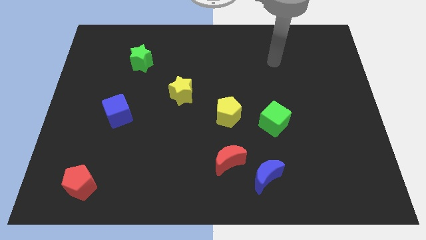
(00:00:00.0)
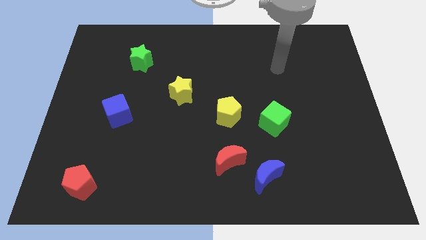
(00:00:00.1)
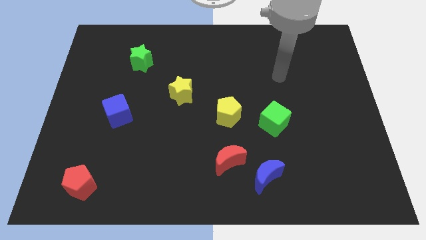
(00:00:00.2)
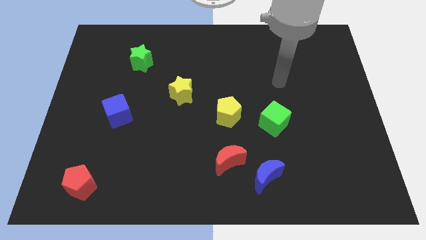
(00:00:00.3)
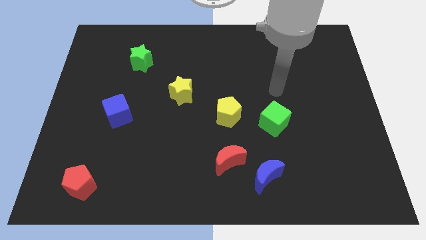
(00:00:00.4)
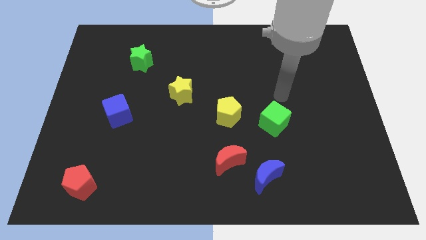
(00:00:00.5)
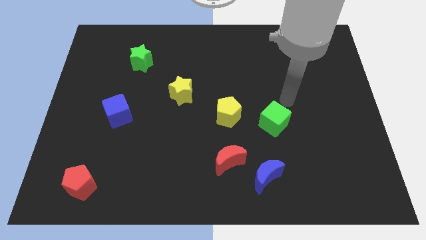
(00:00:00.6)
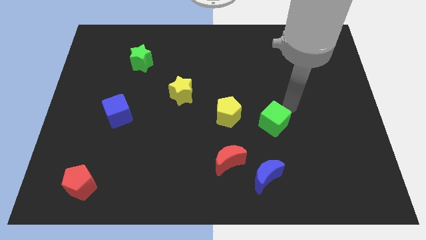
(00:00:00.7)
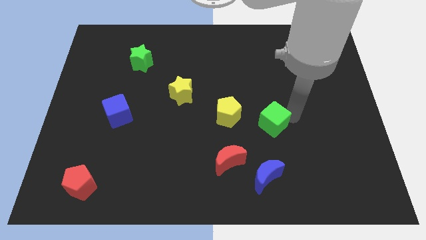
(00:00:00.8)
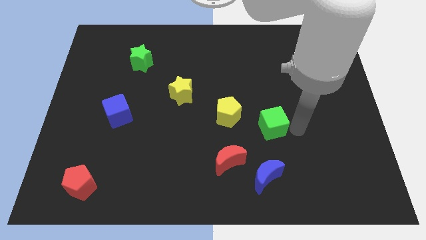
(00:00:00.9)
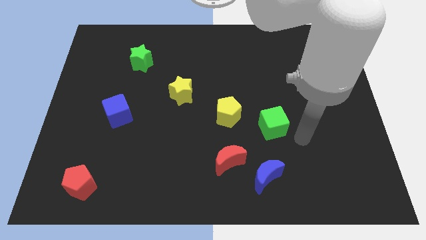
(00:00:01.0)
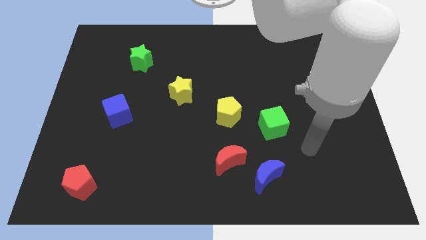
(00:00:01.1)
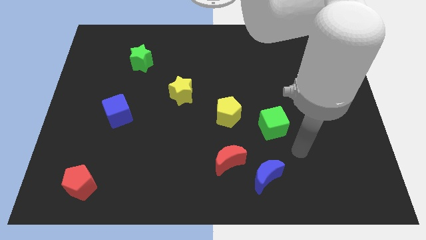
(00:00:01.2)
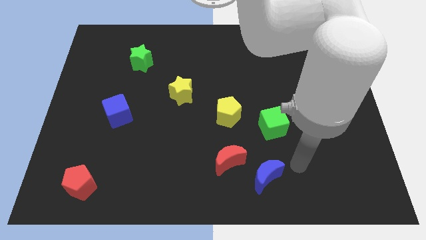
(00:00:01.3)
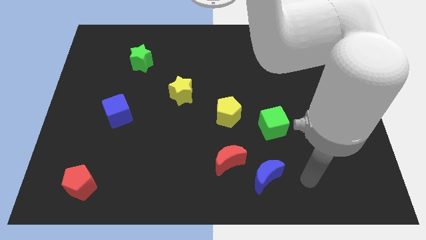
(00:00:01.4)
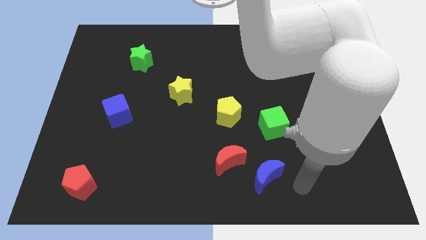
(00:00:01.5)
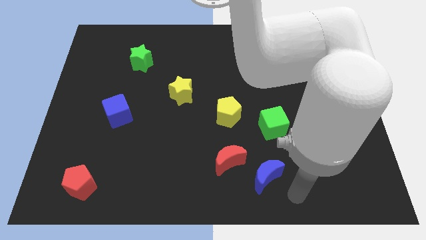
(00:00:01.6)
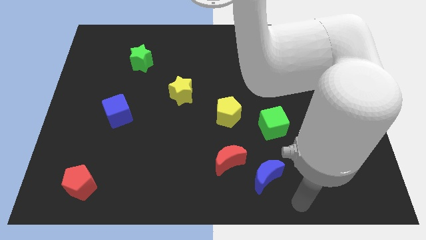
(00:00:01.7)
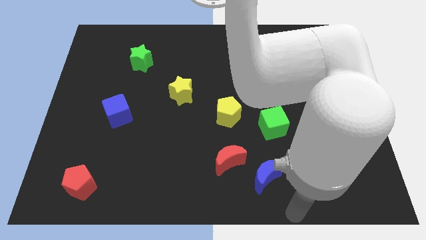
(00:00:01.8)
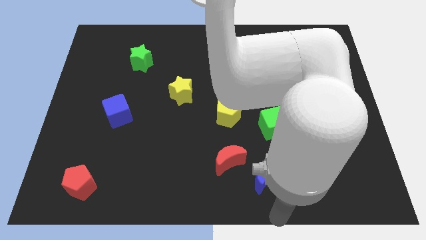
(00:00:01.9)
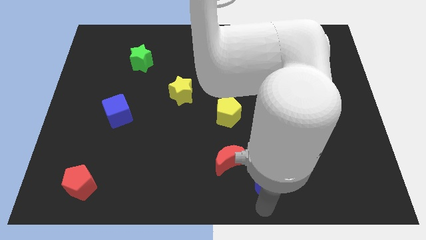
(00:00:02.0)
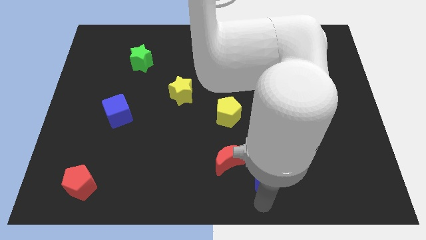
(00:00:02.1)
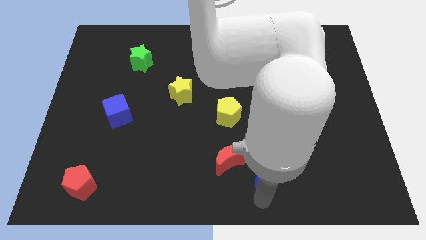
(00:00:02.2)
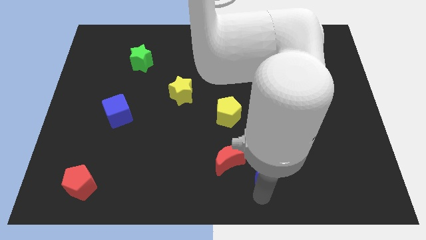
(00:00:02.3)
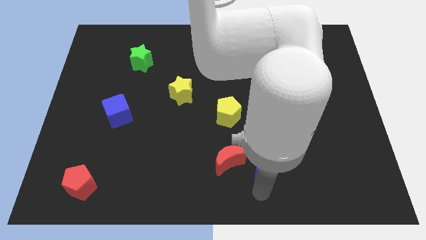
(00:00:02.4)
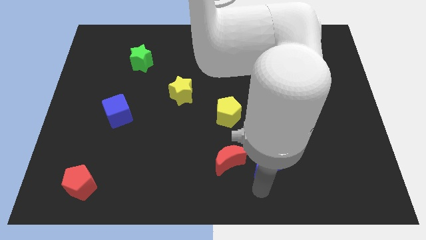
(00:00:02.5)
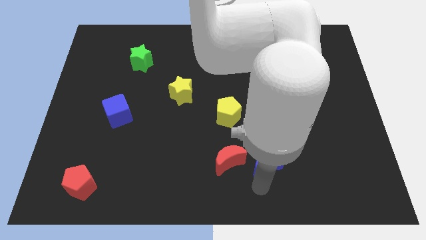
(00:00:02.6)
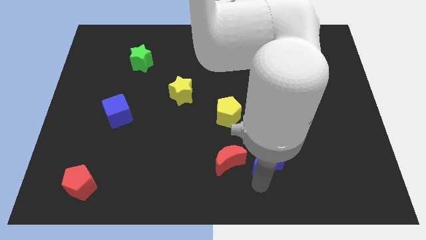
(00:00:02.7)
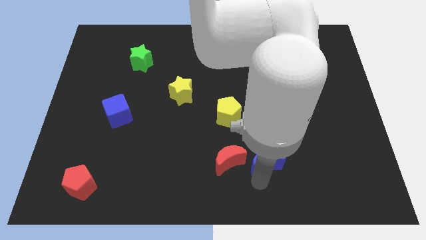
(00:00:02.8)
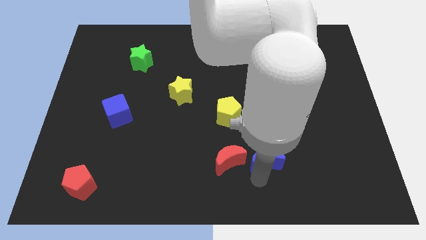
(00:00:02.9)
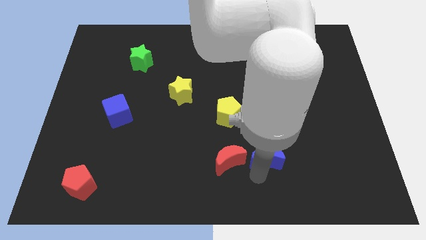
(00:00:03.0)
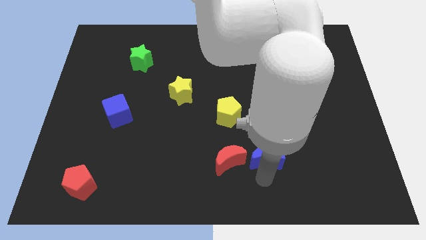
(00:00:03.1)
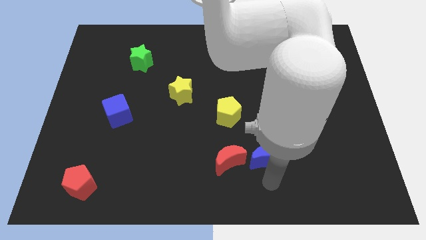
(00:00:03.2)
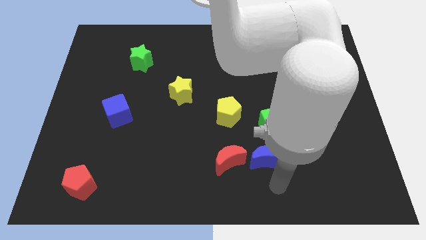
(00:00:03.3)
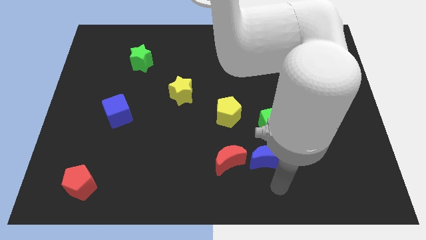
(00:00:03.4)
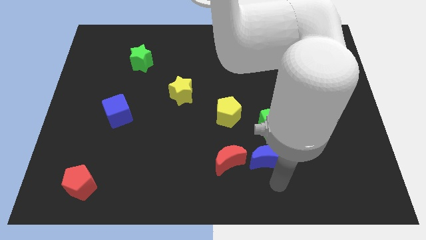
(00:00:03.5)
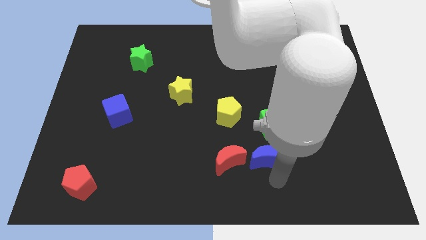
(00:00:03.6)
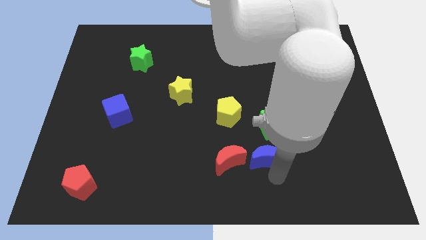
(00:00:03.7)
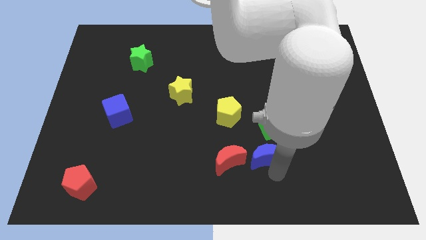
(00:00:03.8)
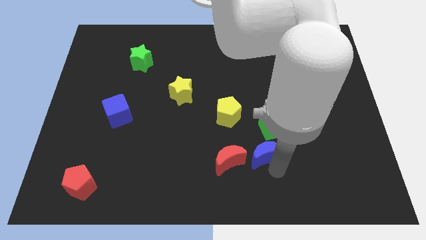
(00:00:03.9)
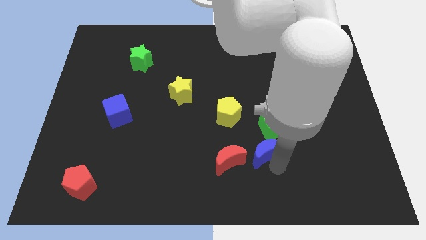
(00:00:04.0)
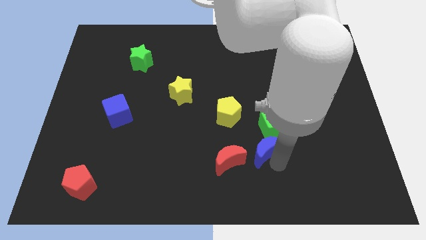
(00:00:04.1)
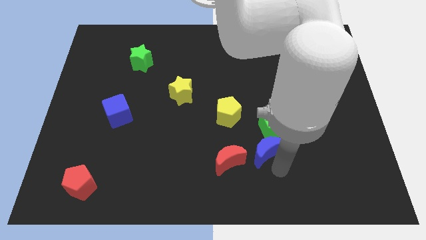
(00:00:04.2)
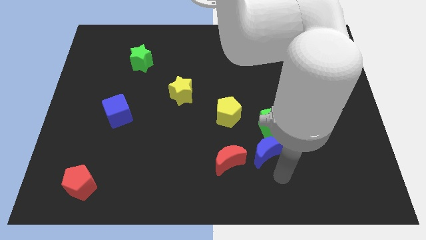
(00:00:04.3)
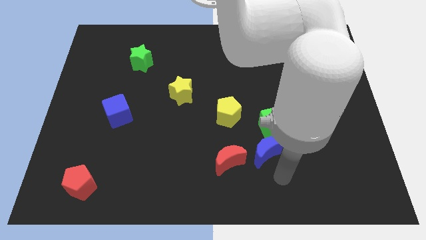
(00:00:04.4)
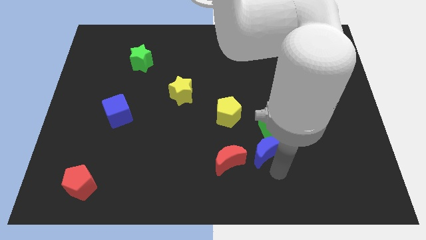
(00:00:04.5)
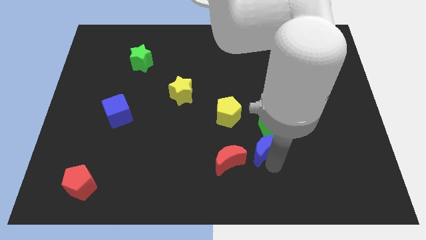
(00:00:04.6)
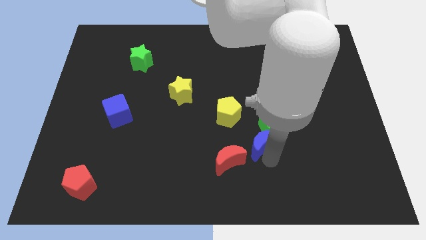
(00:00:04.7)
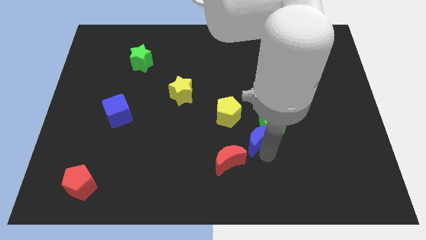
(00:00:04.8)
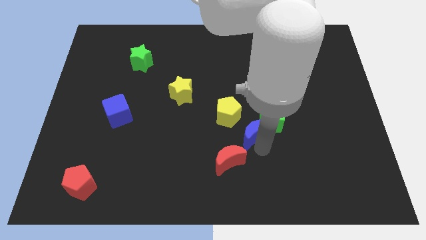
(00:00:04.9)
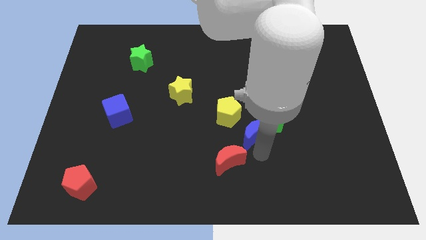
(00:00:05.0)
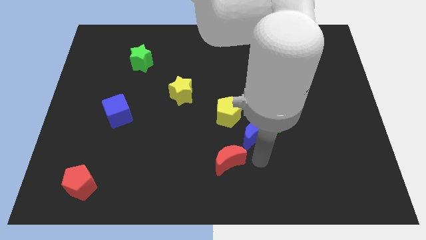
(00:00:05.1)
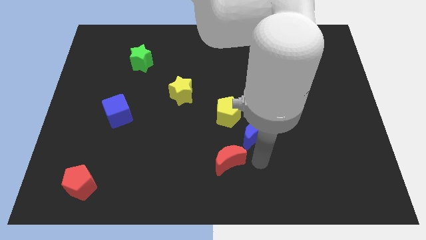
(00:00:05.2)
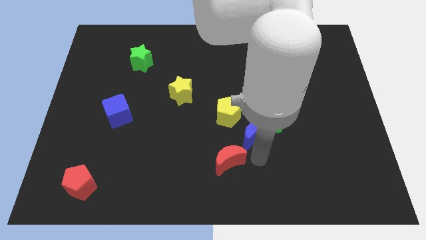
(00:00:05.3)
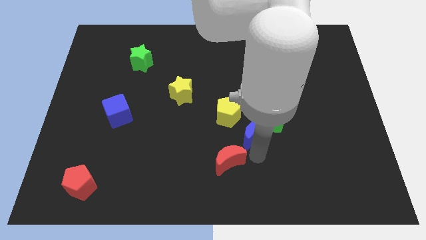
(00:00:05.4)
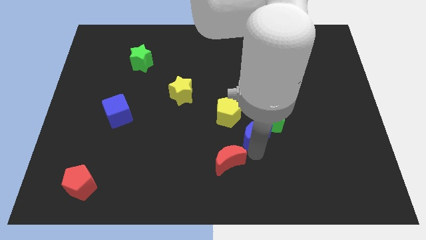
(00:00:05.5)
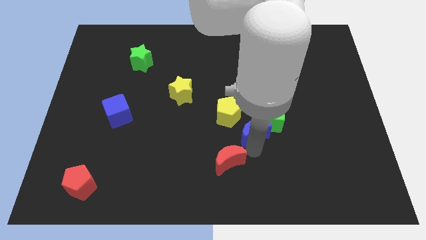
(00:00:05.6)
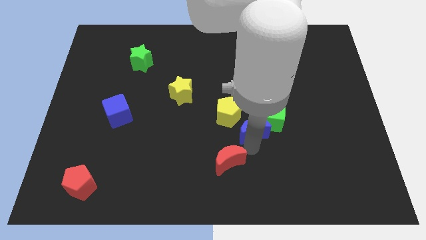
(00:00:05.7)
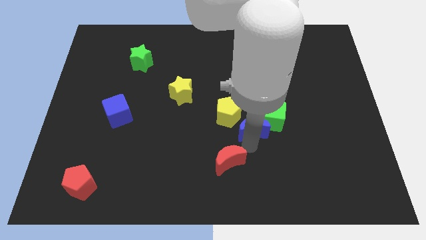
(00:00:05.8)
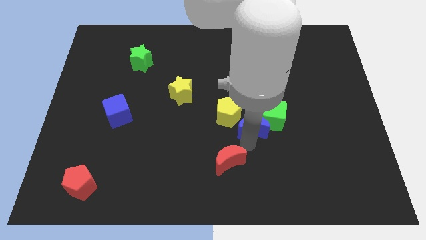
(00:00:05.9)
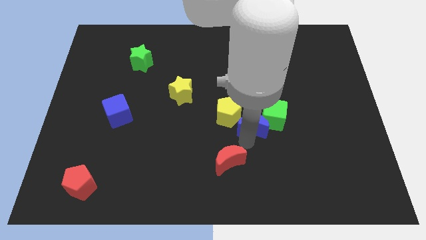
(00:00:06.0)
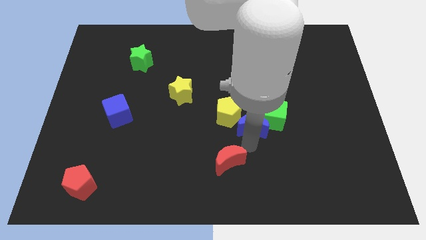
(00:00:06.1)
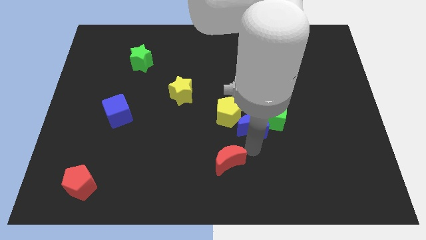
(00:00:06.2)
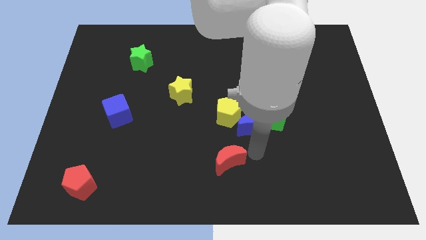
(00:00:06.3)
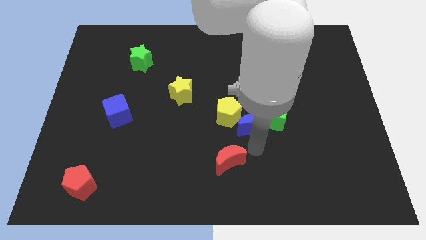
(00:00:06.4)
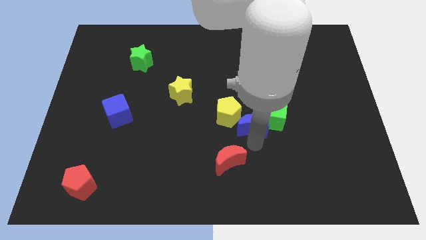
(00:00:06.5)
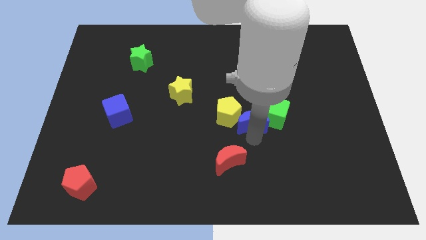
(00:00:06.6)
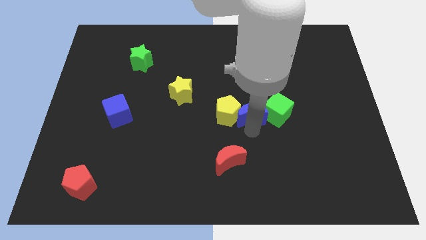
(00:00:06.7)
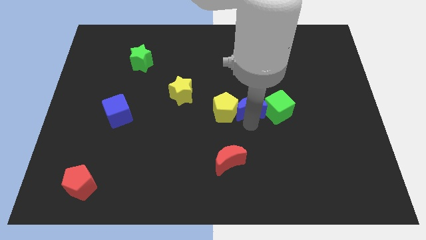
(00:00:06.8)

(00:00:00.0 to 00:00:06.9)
move the blue moon to the top left side of the green cube

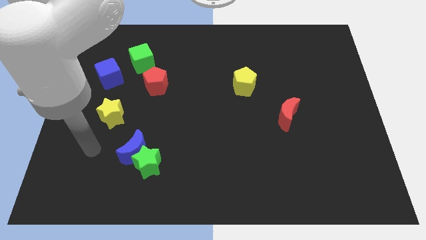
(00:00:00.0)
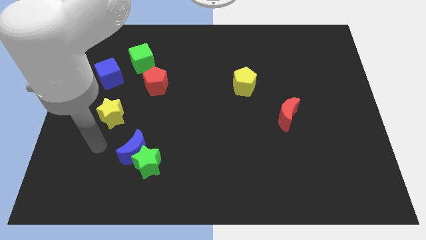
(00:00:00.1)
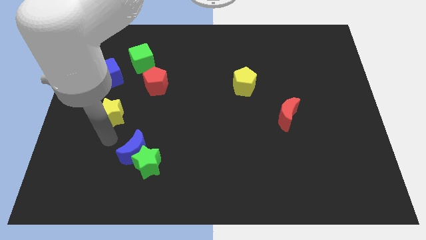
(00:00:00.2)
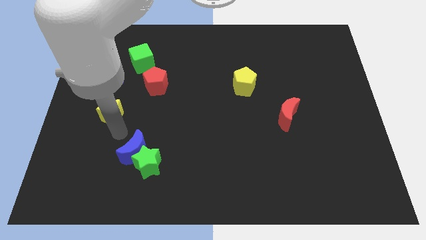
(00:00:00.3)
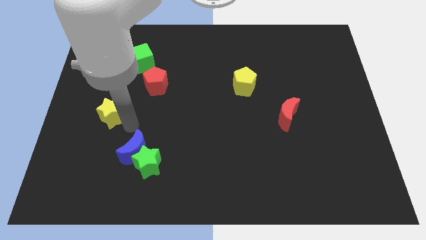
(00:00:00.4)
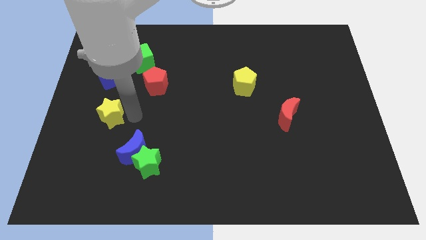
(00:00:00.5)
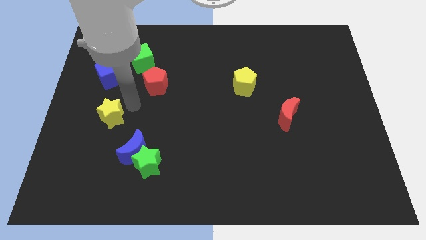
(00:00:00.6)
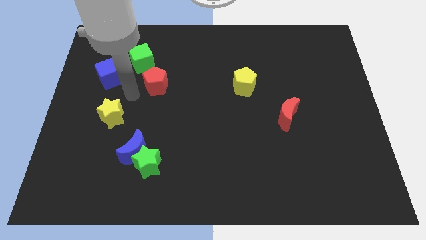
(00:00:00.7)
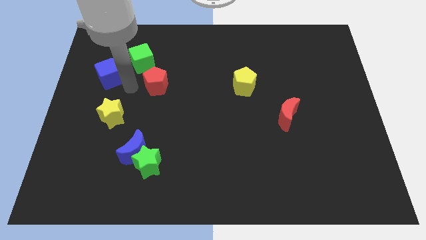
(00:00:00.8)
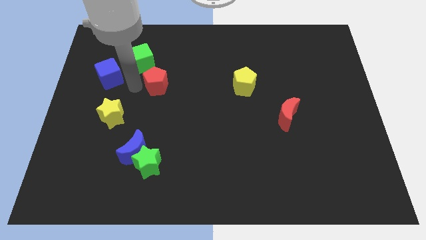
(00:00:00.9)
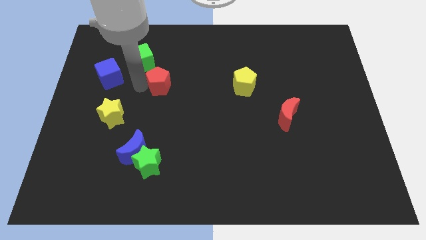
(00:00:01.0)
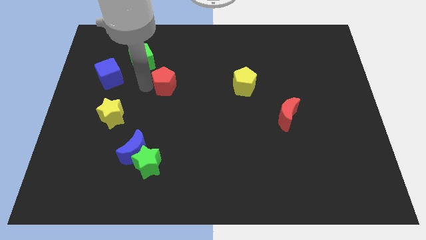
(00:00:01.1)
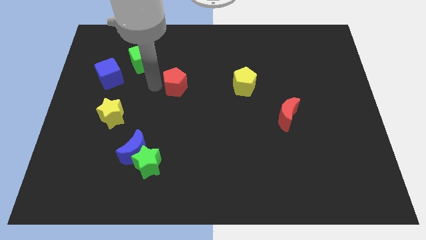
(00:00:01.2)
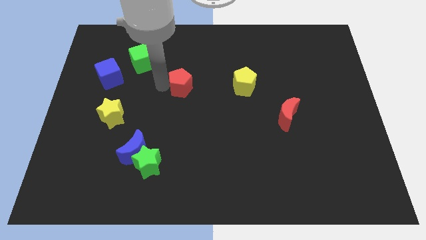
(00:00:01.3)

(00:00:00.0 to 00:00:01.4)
move the red pentagon left of the yellow pentagon

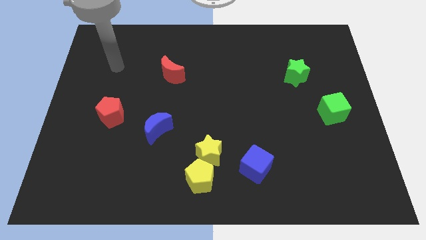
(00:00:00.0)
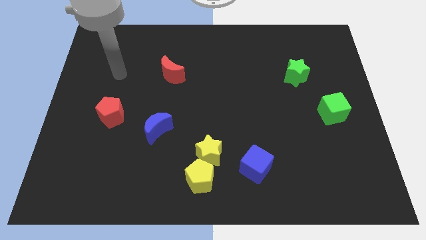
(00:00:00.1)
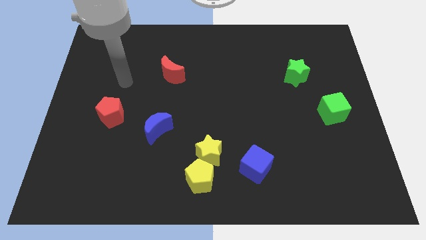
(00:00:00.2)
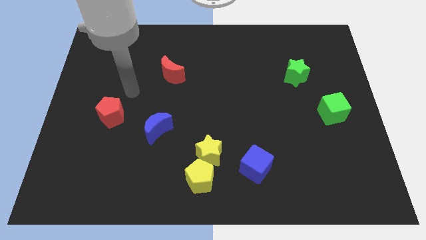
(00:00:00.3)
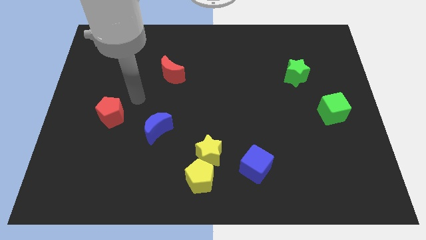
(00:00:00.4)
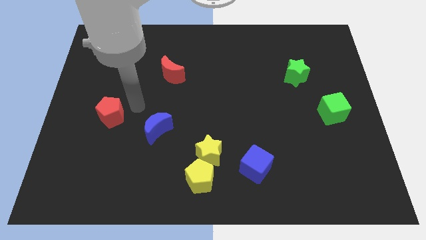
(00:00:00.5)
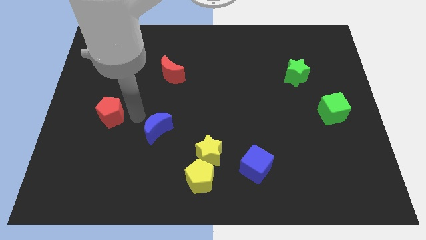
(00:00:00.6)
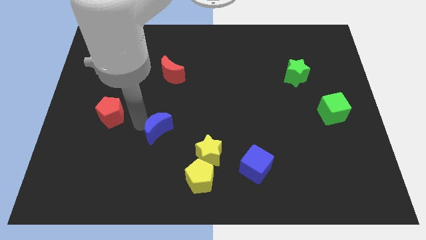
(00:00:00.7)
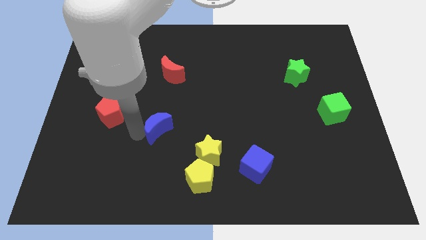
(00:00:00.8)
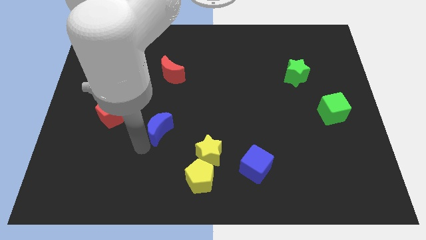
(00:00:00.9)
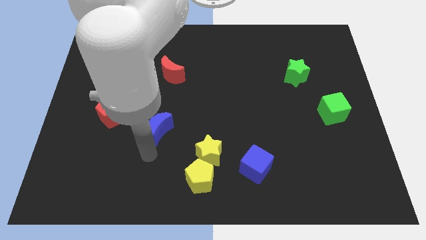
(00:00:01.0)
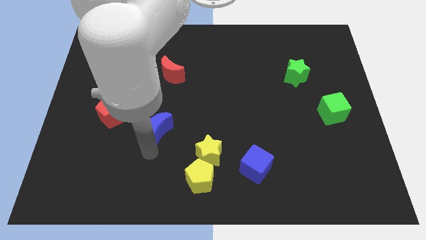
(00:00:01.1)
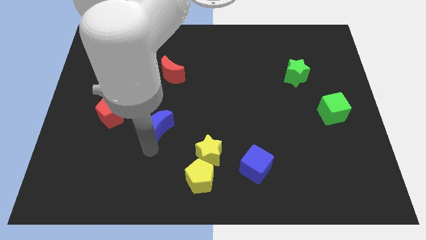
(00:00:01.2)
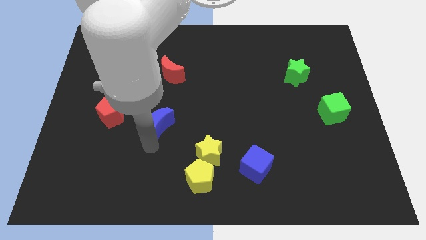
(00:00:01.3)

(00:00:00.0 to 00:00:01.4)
slide the blue moon to the bottom of the red moon
